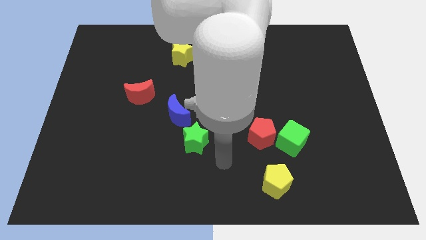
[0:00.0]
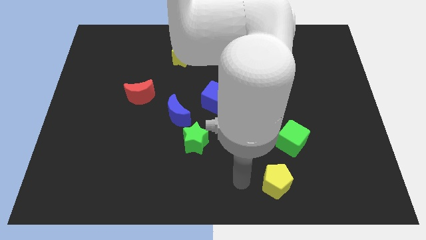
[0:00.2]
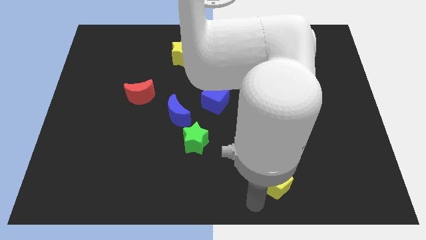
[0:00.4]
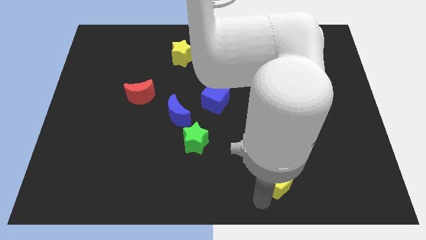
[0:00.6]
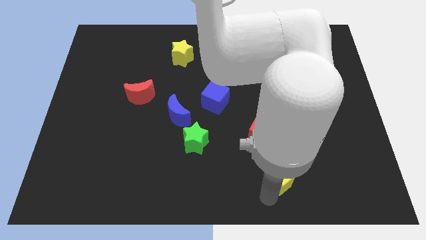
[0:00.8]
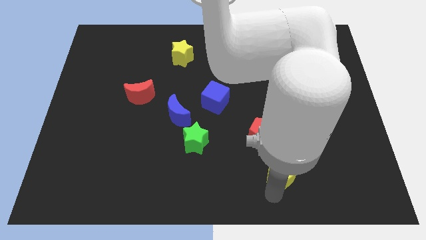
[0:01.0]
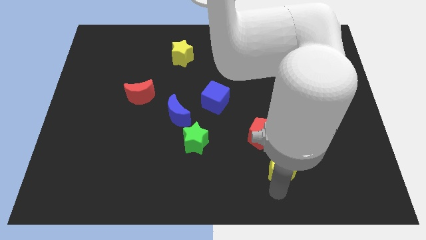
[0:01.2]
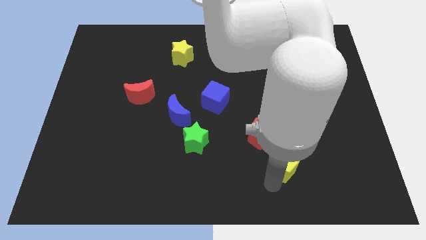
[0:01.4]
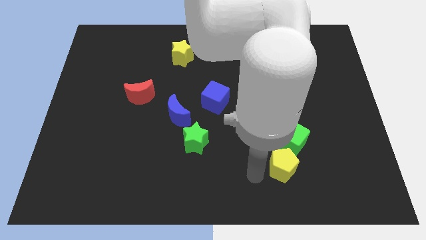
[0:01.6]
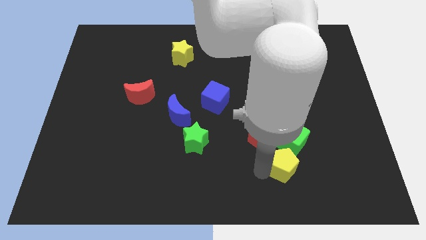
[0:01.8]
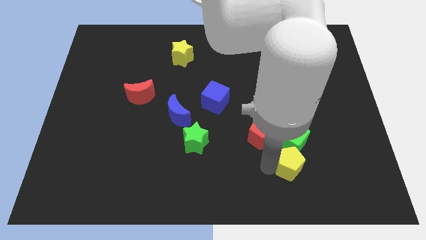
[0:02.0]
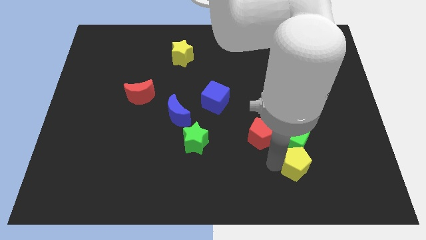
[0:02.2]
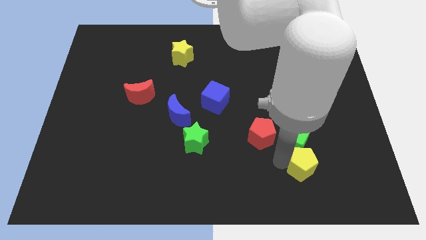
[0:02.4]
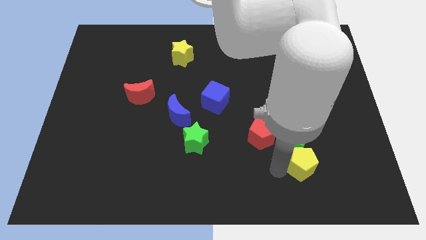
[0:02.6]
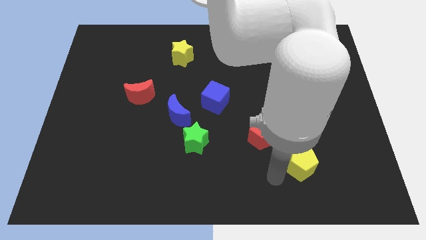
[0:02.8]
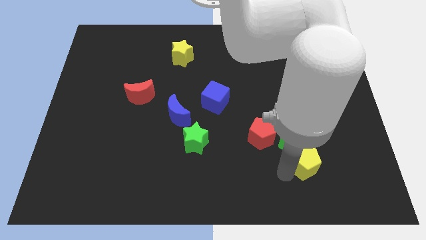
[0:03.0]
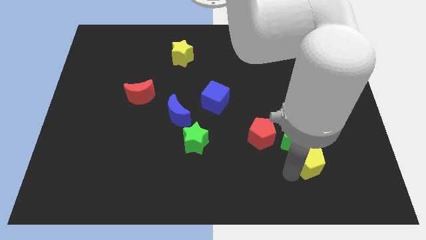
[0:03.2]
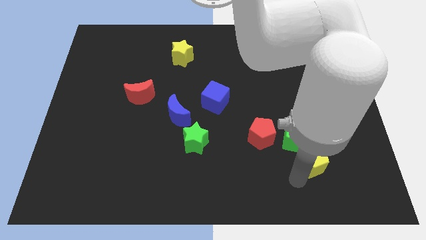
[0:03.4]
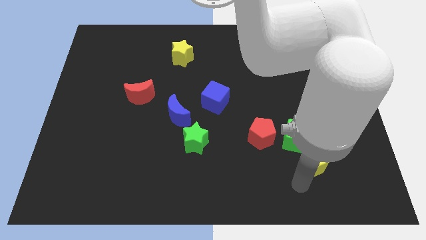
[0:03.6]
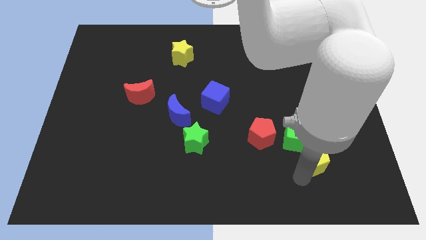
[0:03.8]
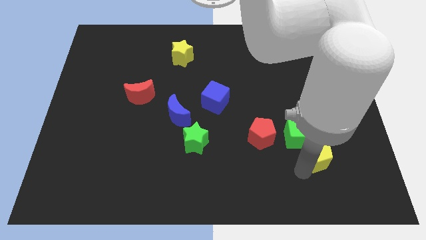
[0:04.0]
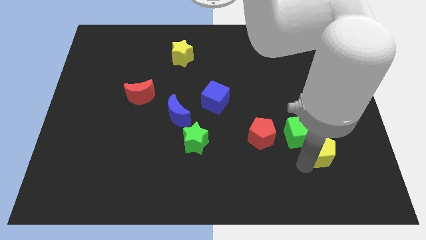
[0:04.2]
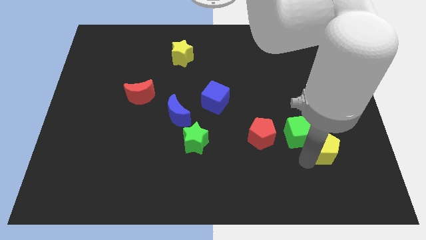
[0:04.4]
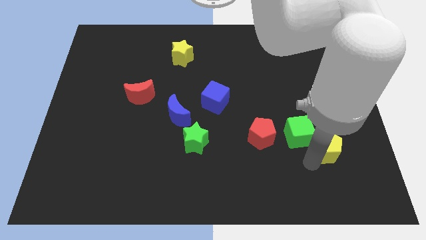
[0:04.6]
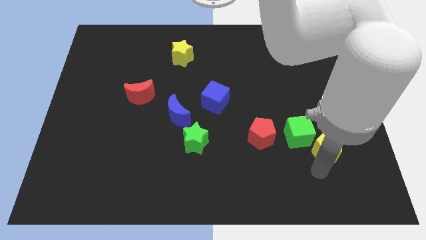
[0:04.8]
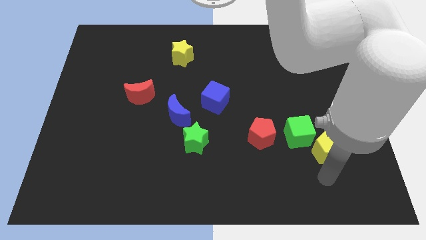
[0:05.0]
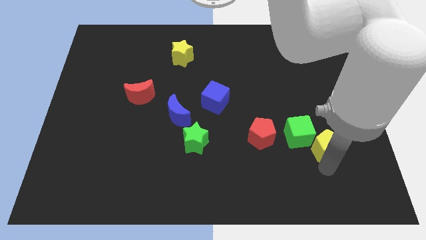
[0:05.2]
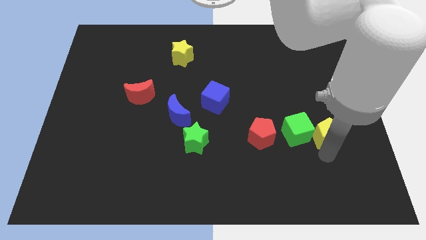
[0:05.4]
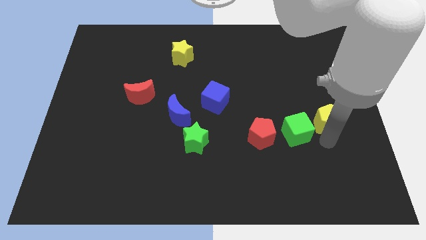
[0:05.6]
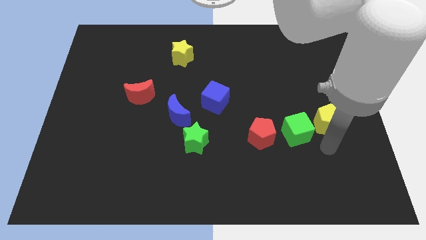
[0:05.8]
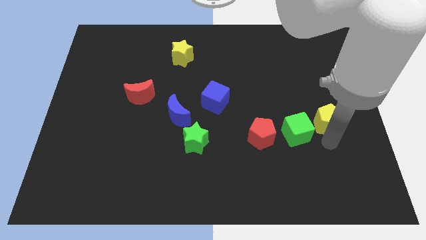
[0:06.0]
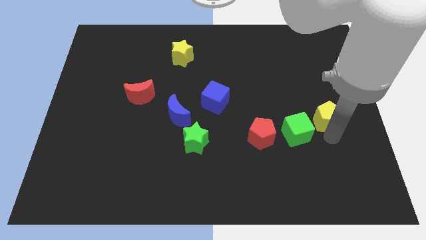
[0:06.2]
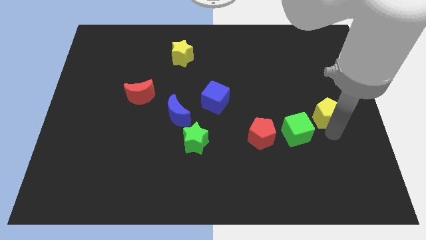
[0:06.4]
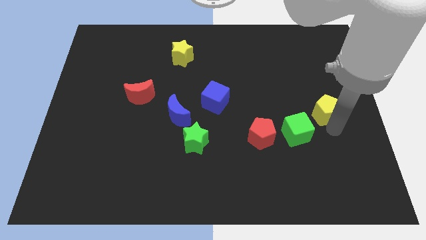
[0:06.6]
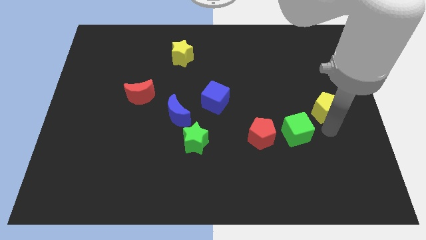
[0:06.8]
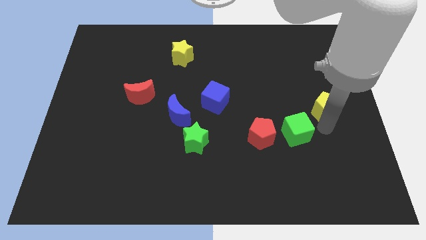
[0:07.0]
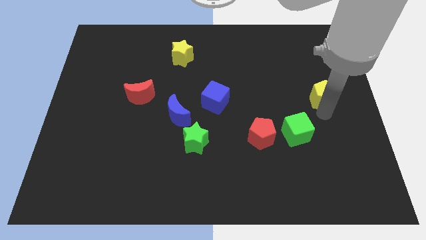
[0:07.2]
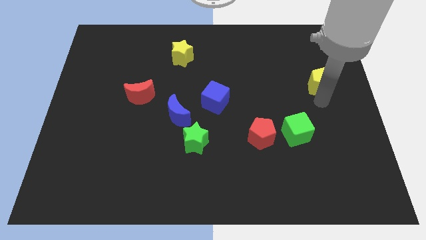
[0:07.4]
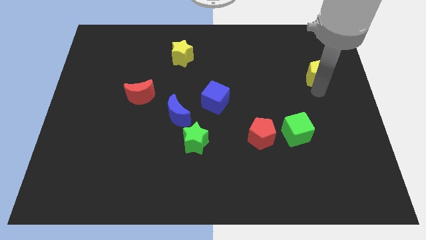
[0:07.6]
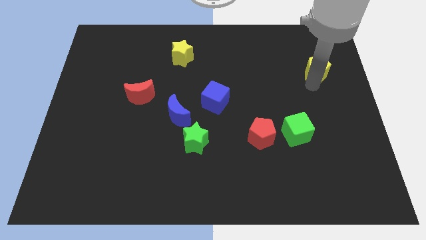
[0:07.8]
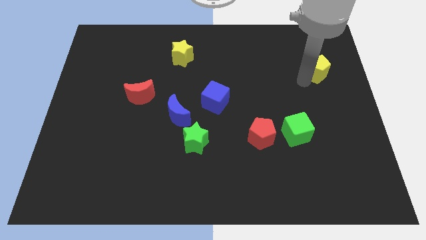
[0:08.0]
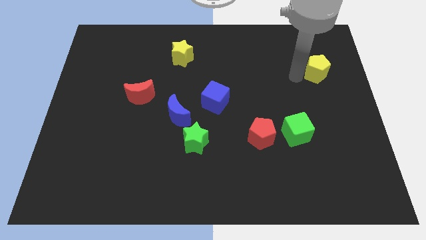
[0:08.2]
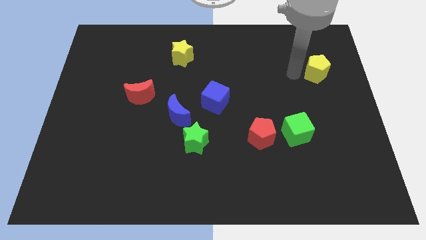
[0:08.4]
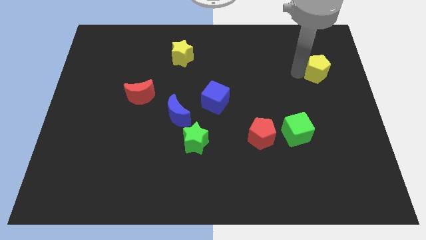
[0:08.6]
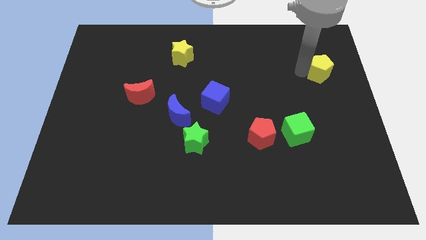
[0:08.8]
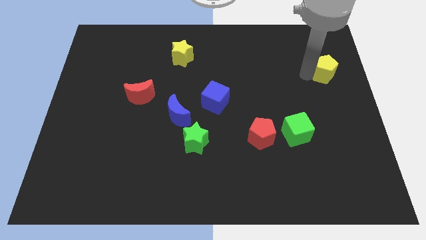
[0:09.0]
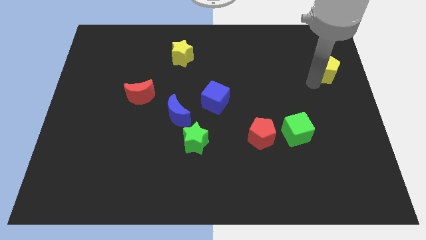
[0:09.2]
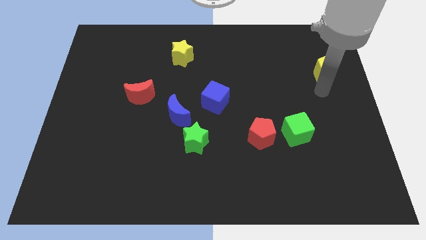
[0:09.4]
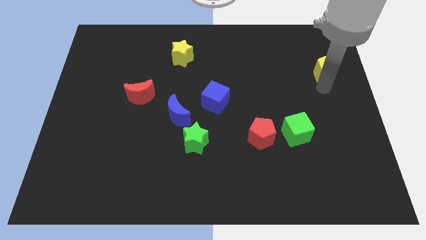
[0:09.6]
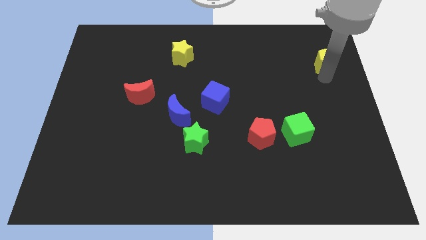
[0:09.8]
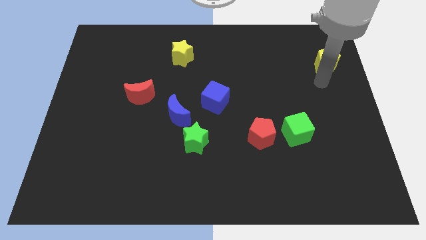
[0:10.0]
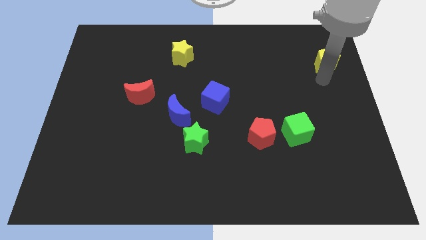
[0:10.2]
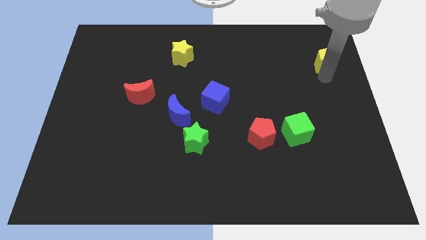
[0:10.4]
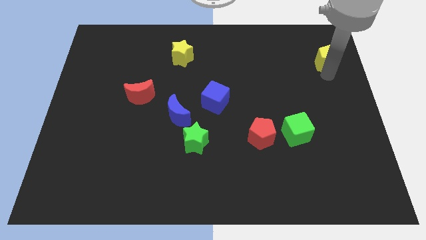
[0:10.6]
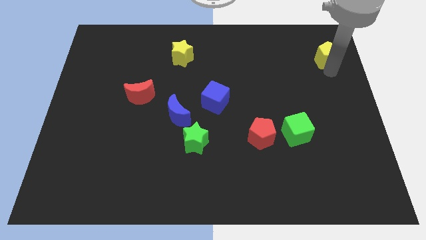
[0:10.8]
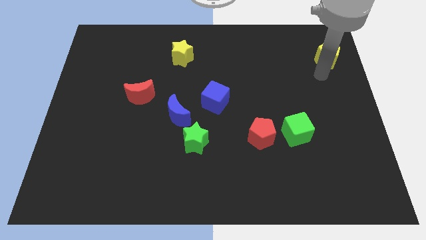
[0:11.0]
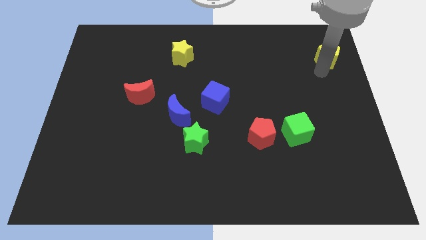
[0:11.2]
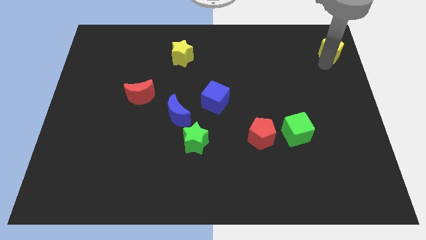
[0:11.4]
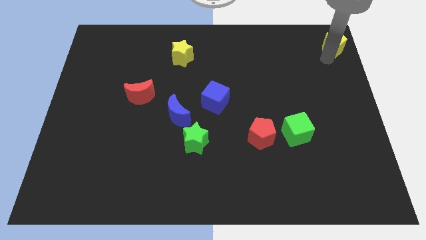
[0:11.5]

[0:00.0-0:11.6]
push the yellow pentagon to the top right corner

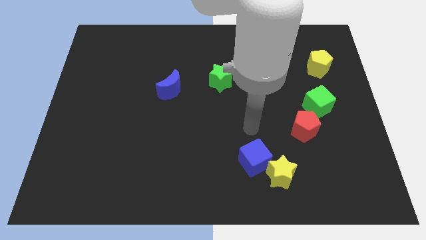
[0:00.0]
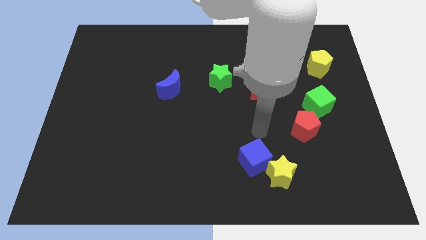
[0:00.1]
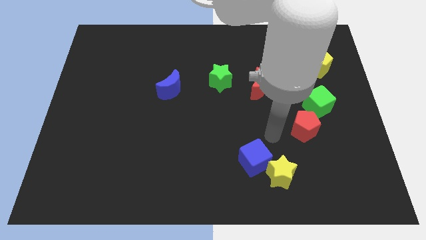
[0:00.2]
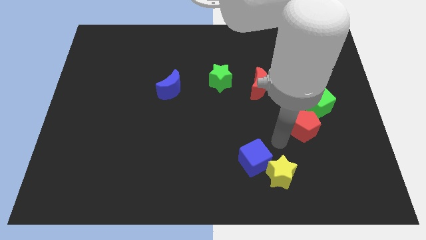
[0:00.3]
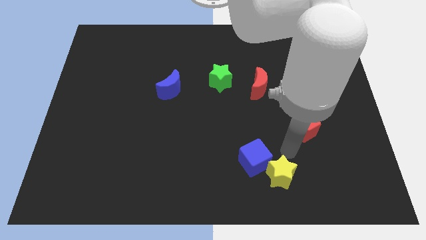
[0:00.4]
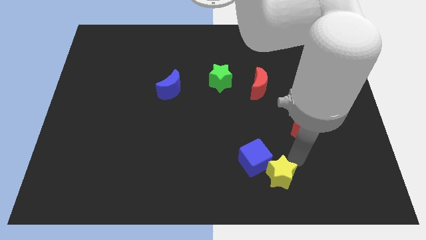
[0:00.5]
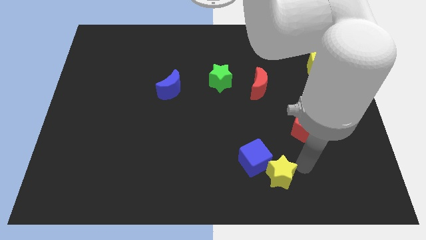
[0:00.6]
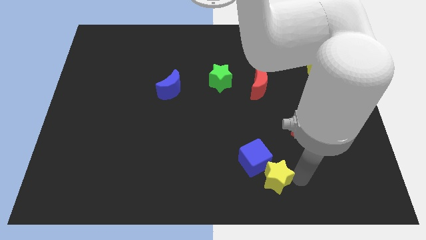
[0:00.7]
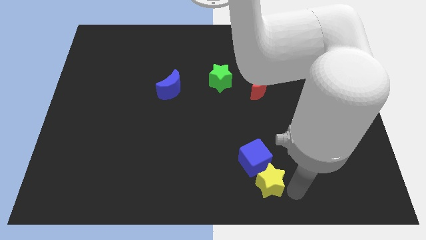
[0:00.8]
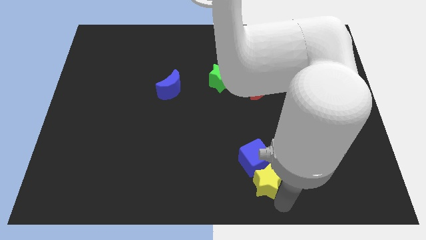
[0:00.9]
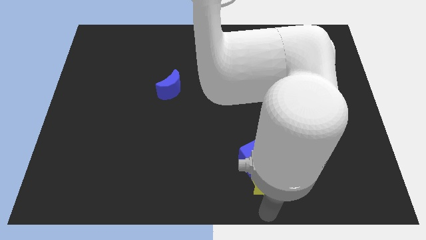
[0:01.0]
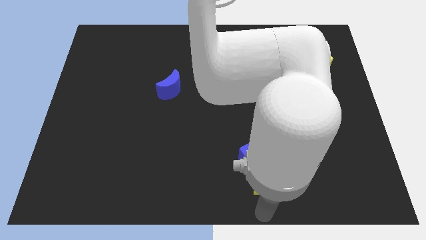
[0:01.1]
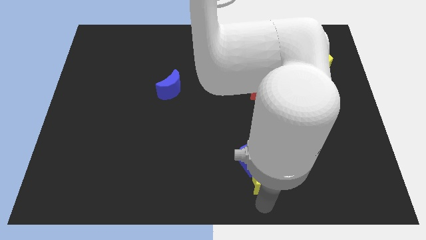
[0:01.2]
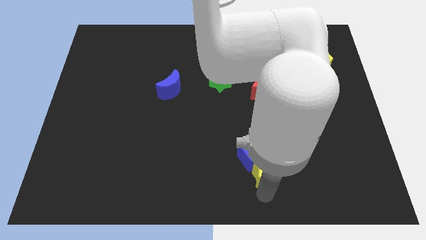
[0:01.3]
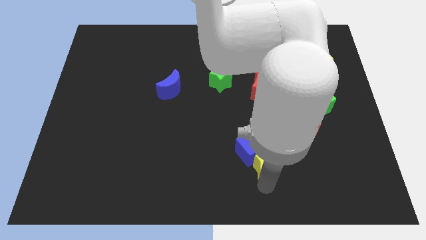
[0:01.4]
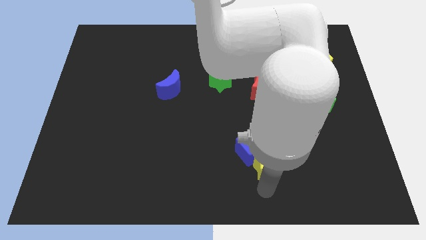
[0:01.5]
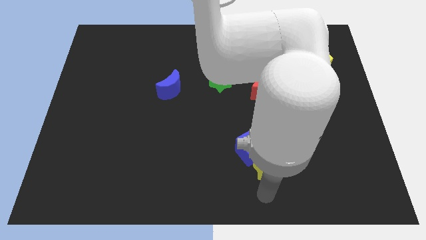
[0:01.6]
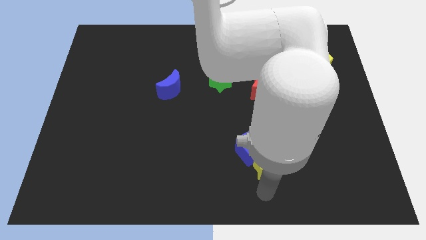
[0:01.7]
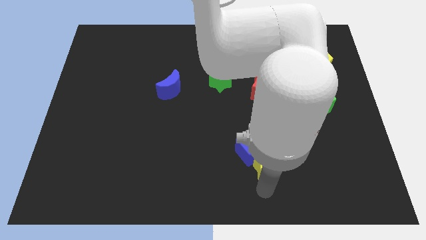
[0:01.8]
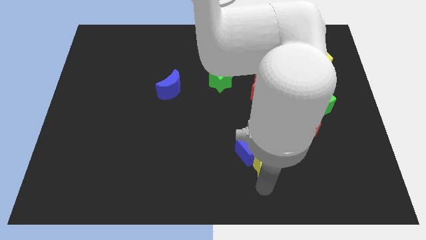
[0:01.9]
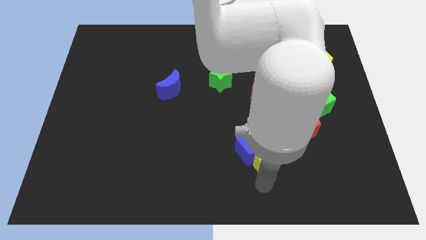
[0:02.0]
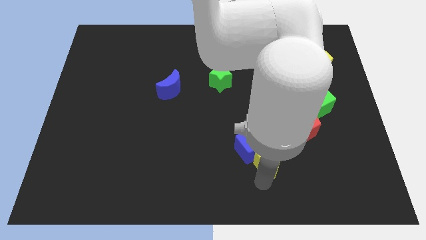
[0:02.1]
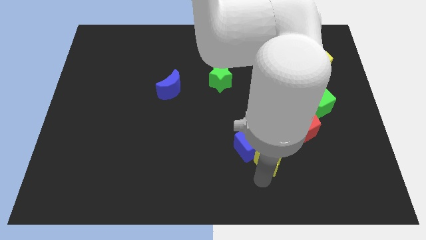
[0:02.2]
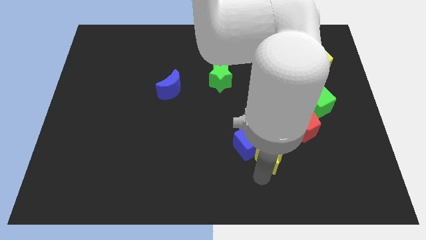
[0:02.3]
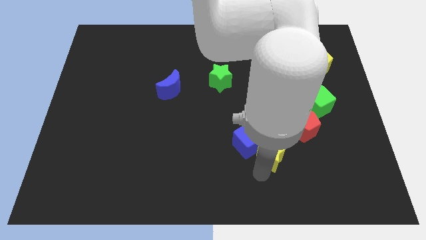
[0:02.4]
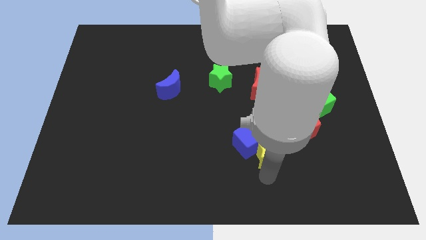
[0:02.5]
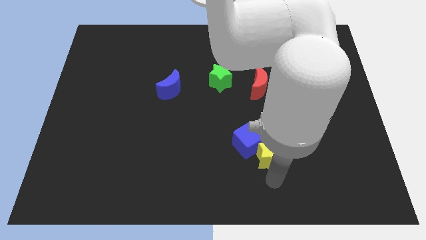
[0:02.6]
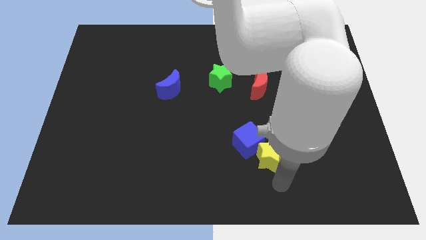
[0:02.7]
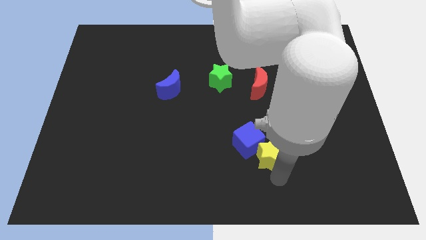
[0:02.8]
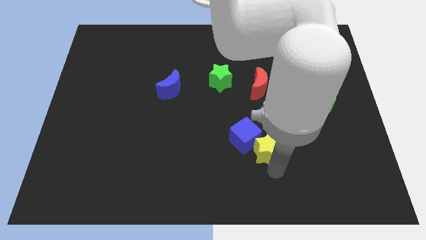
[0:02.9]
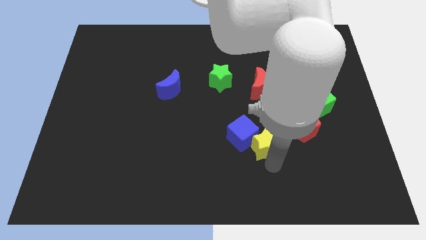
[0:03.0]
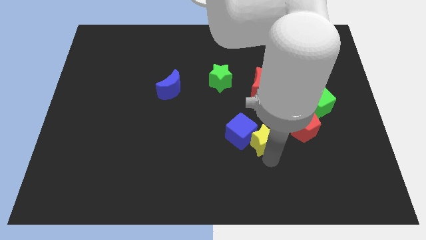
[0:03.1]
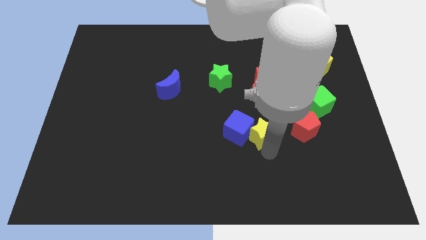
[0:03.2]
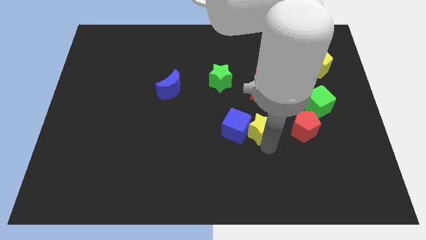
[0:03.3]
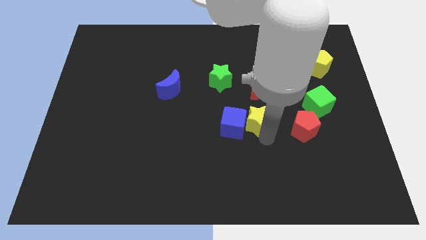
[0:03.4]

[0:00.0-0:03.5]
move the yellow star to the center
